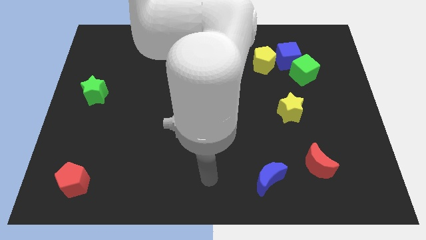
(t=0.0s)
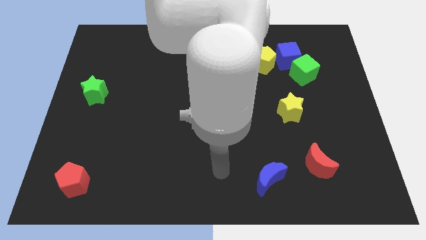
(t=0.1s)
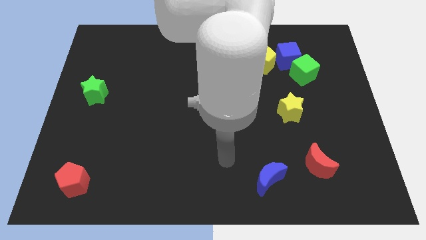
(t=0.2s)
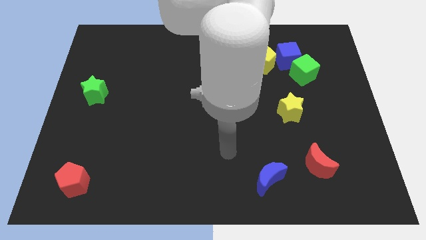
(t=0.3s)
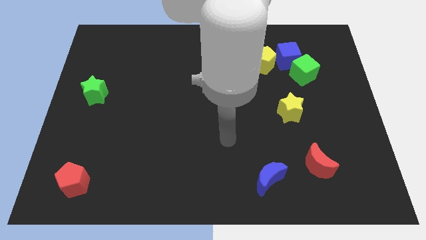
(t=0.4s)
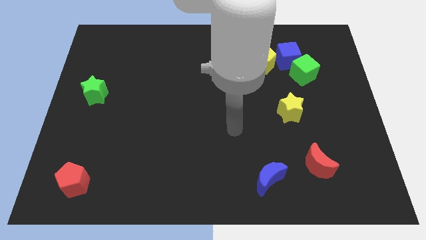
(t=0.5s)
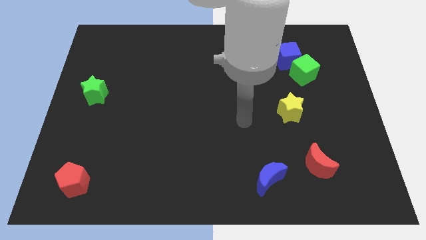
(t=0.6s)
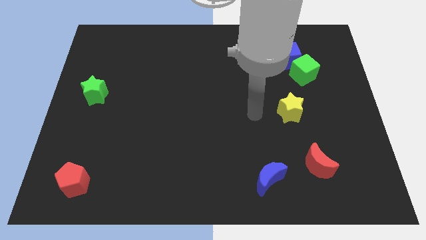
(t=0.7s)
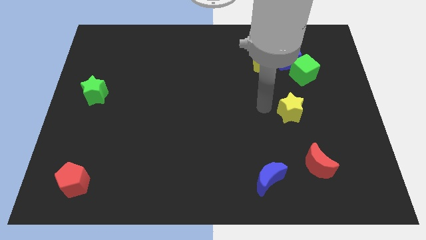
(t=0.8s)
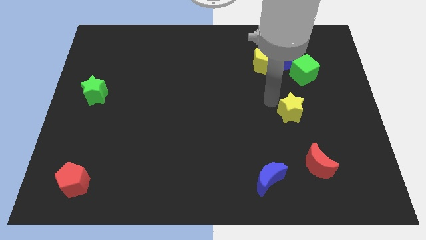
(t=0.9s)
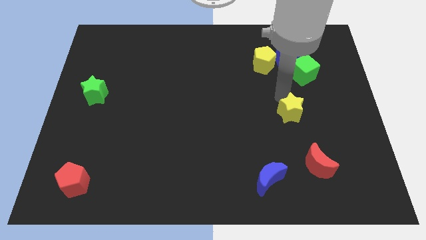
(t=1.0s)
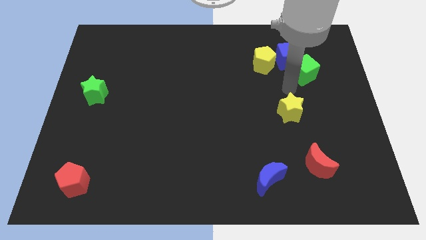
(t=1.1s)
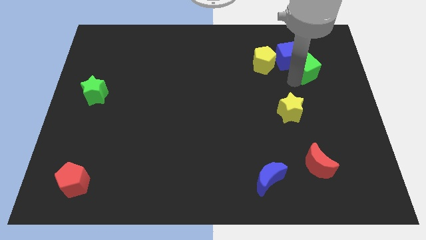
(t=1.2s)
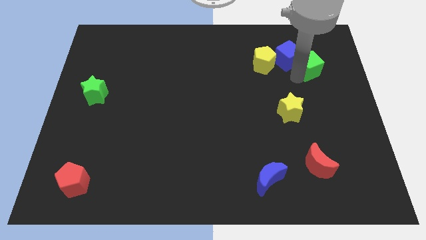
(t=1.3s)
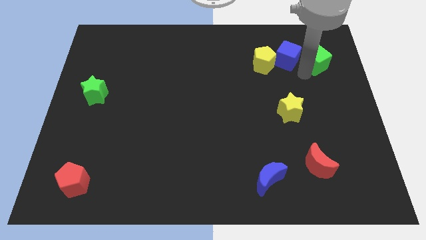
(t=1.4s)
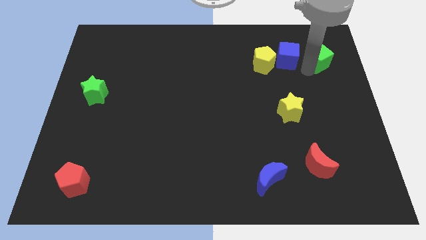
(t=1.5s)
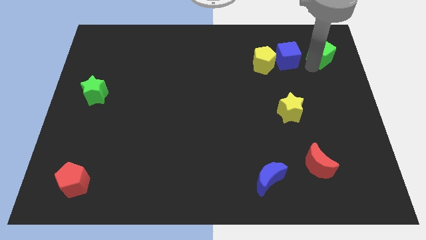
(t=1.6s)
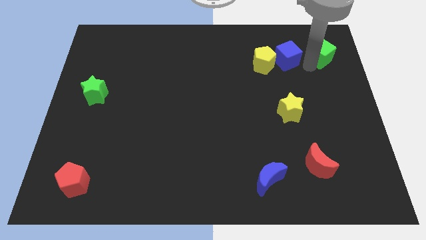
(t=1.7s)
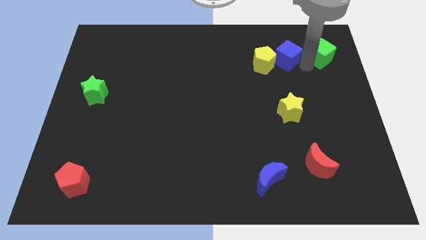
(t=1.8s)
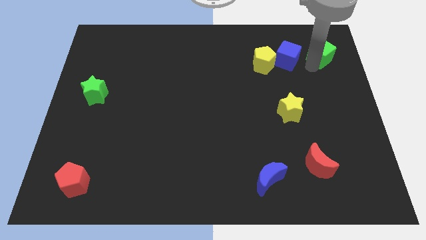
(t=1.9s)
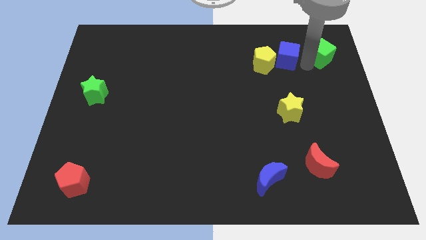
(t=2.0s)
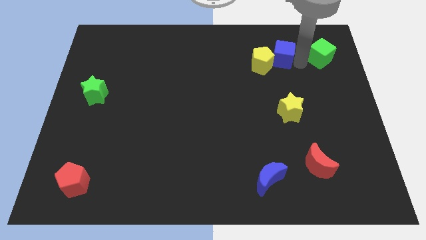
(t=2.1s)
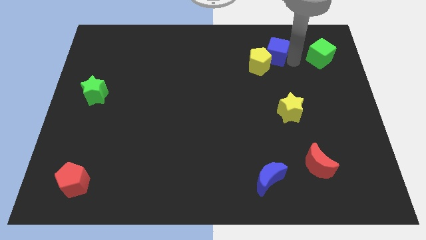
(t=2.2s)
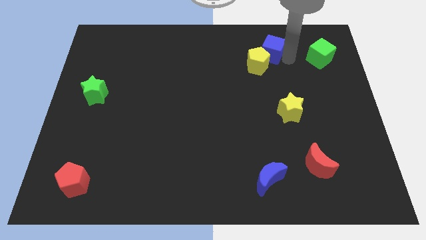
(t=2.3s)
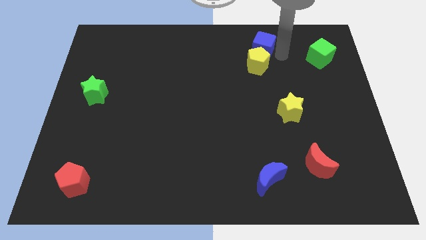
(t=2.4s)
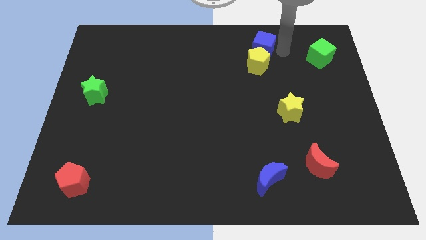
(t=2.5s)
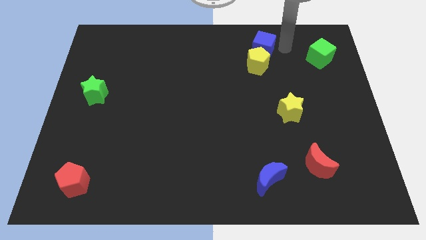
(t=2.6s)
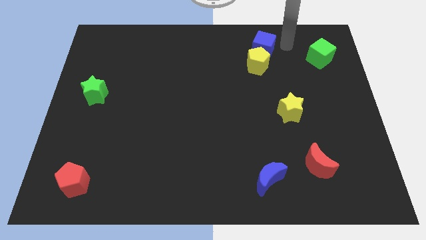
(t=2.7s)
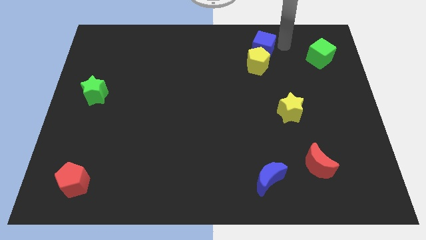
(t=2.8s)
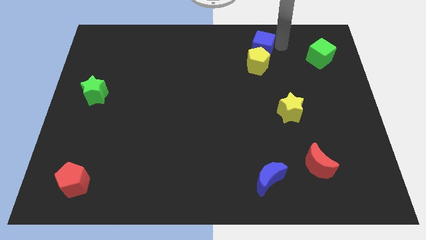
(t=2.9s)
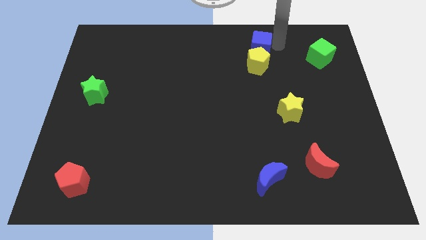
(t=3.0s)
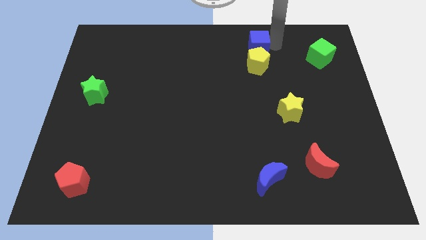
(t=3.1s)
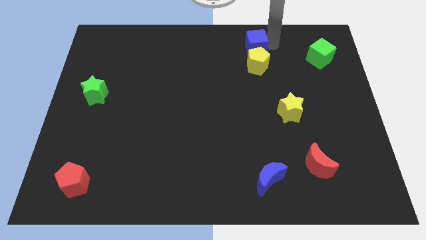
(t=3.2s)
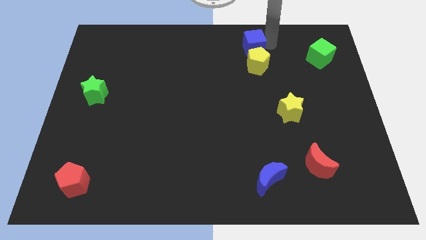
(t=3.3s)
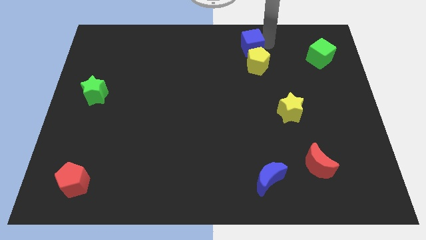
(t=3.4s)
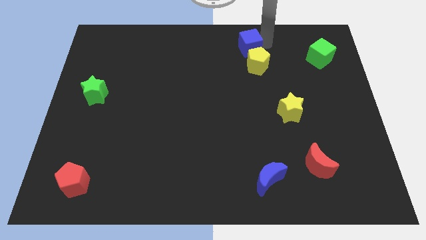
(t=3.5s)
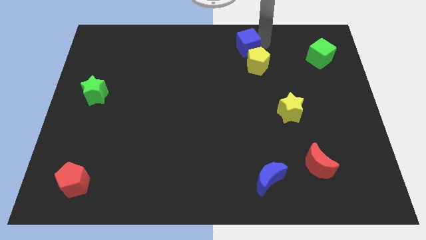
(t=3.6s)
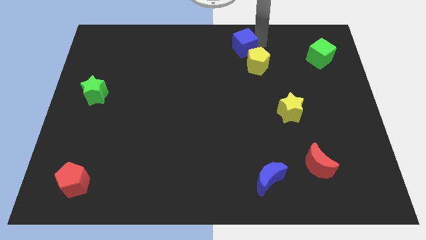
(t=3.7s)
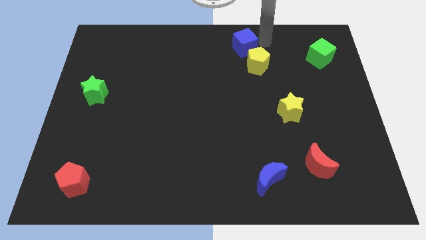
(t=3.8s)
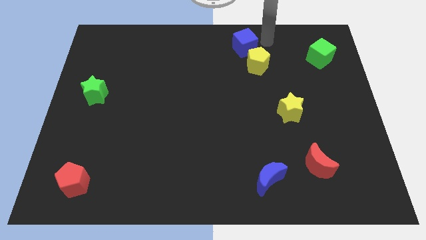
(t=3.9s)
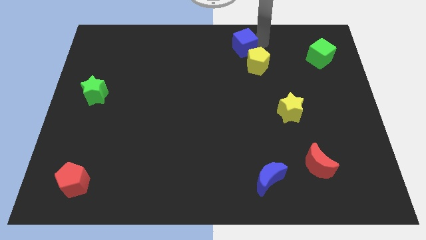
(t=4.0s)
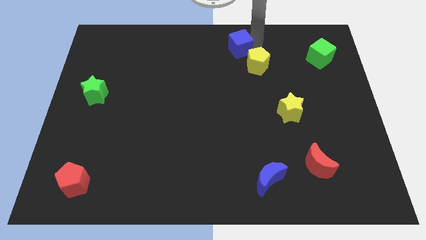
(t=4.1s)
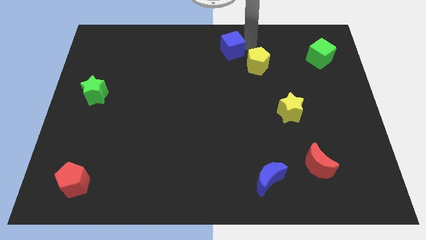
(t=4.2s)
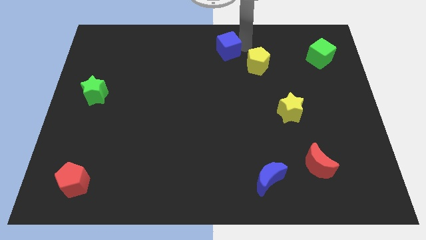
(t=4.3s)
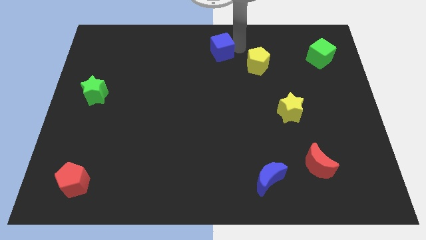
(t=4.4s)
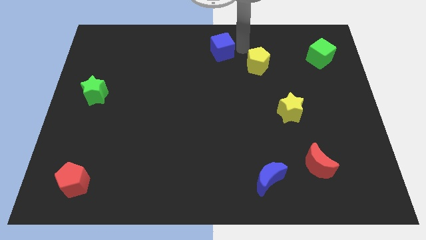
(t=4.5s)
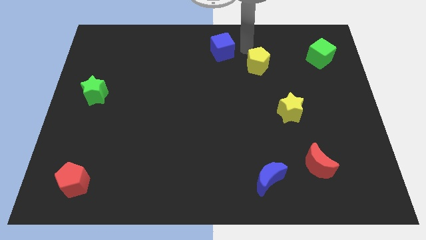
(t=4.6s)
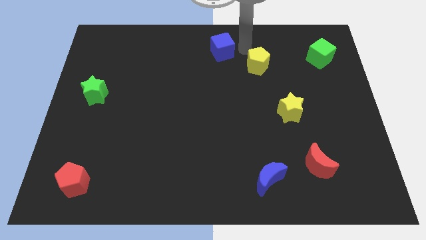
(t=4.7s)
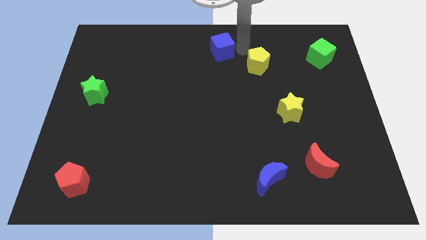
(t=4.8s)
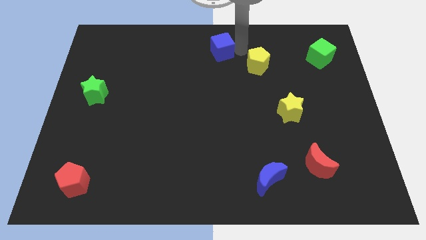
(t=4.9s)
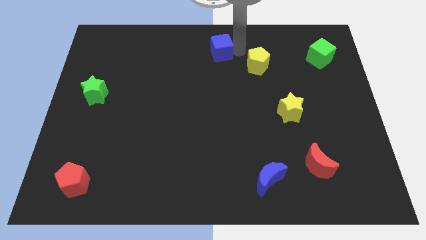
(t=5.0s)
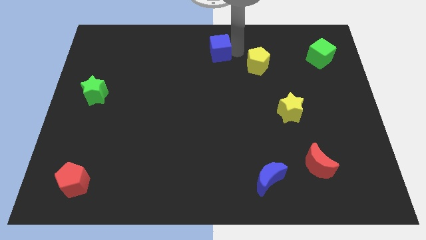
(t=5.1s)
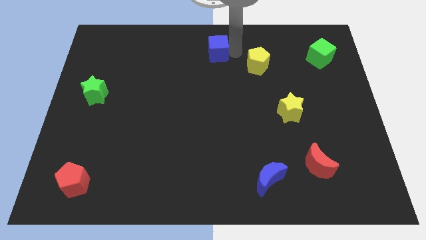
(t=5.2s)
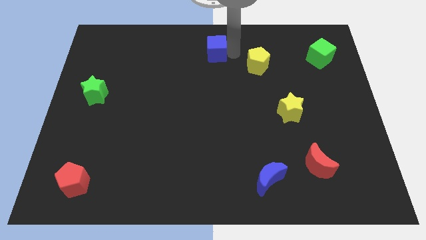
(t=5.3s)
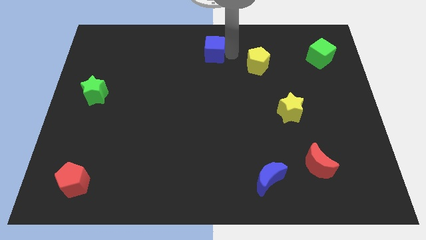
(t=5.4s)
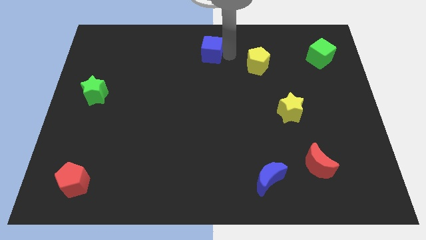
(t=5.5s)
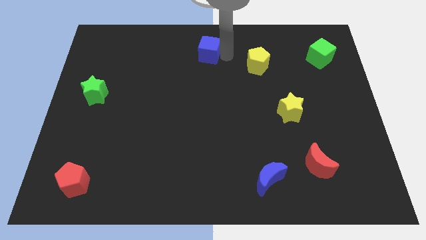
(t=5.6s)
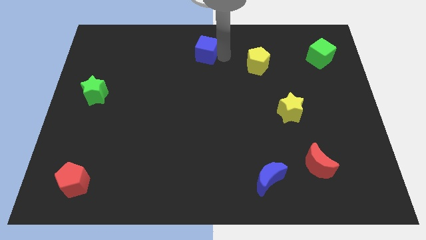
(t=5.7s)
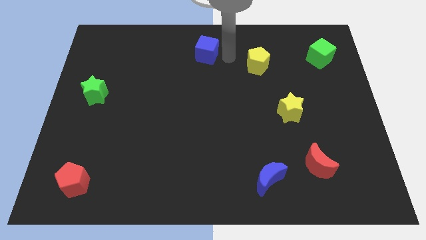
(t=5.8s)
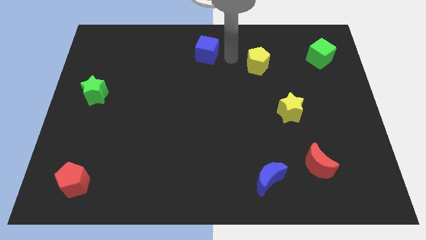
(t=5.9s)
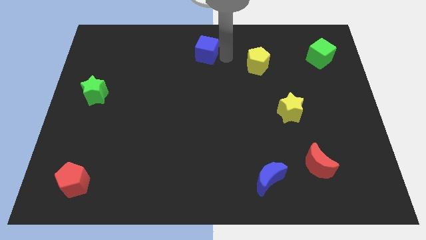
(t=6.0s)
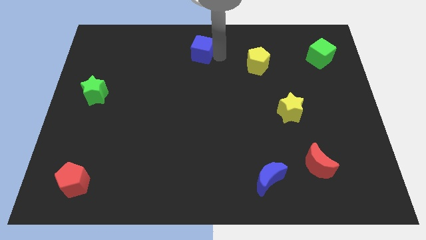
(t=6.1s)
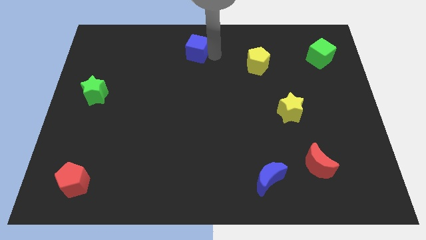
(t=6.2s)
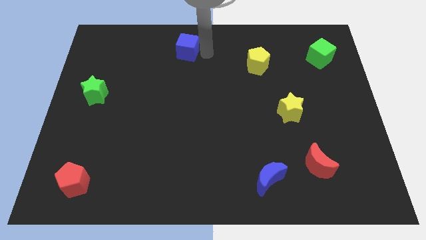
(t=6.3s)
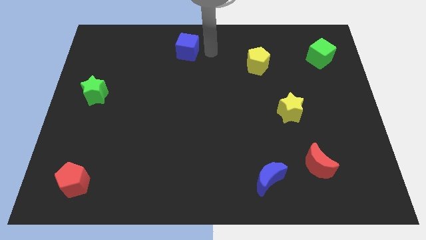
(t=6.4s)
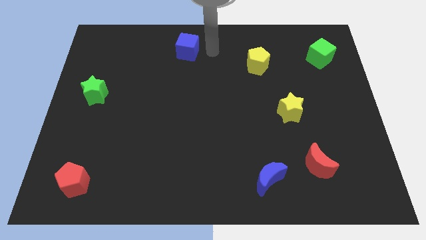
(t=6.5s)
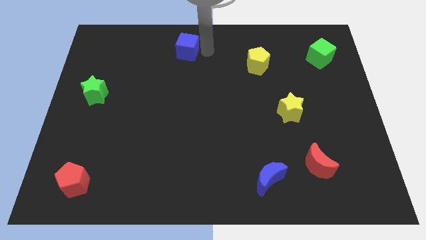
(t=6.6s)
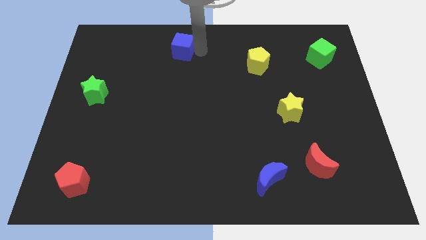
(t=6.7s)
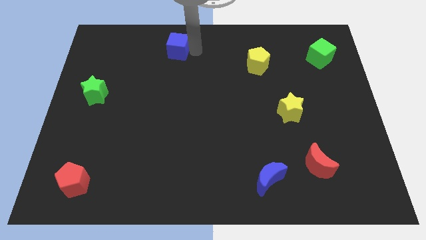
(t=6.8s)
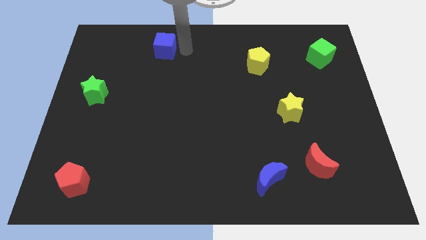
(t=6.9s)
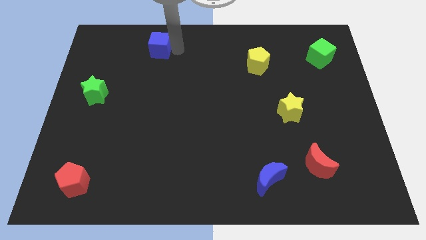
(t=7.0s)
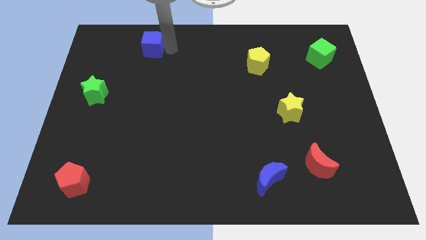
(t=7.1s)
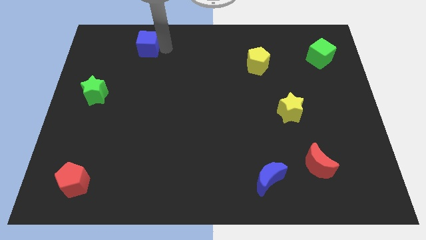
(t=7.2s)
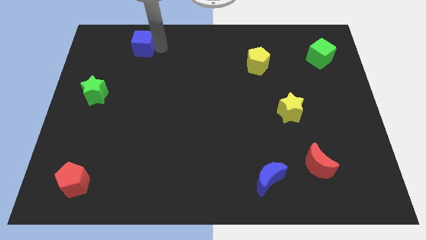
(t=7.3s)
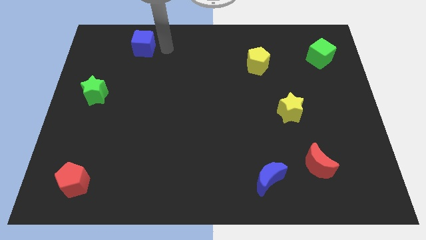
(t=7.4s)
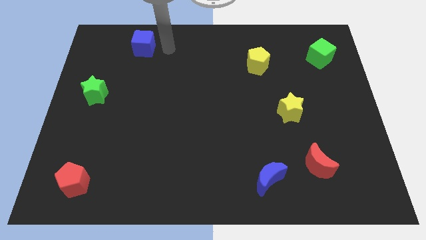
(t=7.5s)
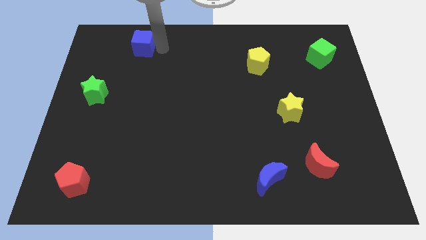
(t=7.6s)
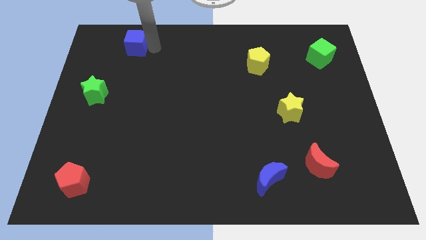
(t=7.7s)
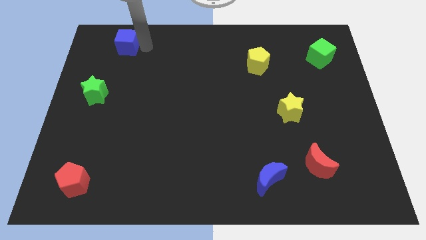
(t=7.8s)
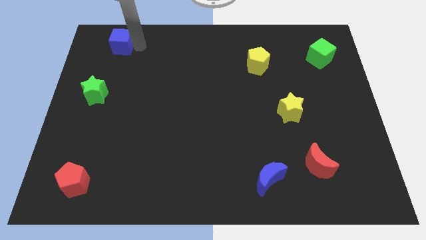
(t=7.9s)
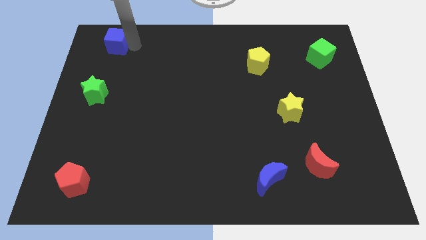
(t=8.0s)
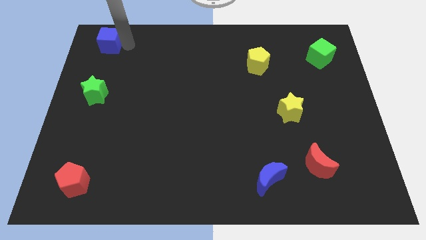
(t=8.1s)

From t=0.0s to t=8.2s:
push the blue cube to the top left
